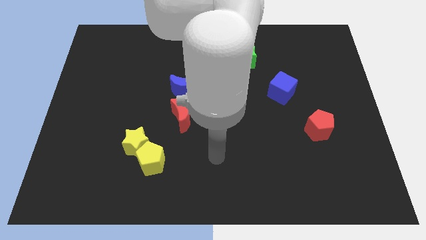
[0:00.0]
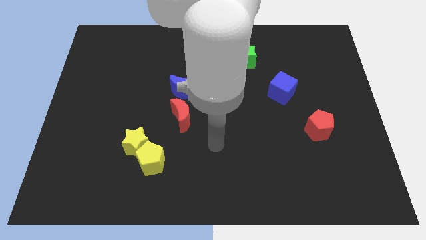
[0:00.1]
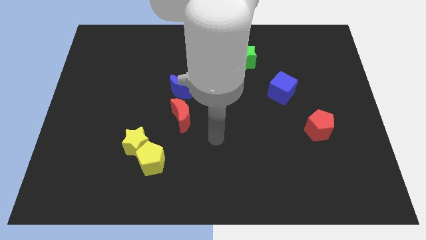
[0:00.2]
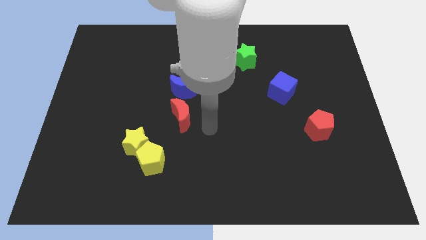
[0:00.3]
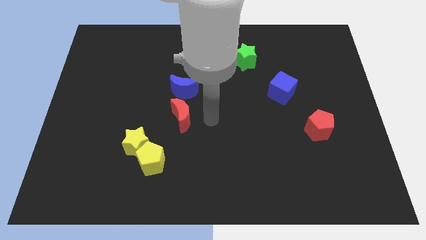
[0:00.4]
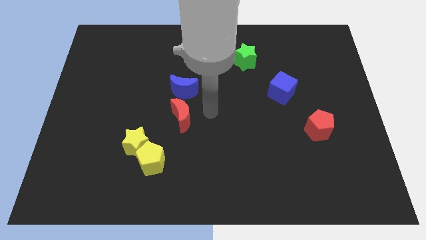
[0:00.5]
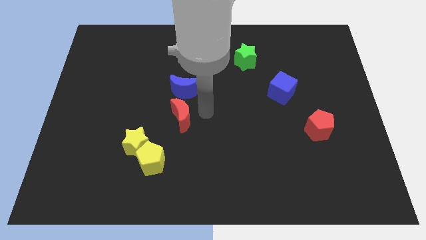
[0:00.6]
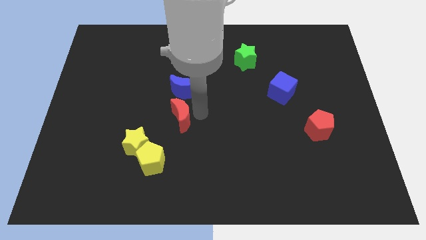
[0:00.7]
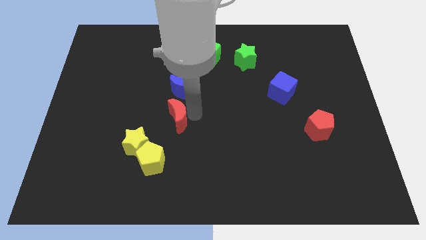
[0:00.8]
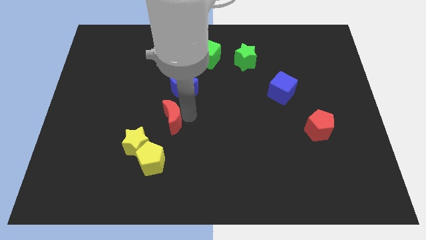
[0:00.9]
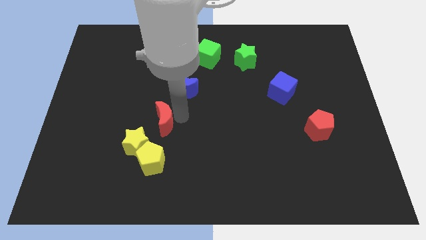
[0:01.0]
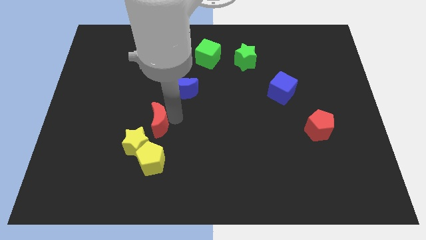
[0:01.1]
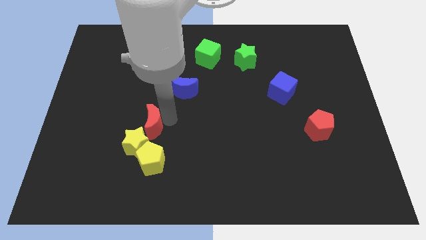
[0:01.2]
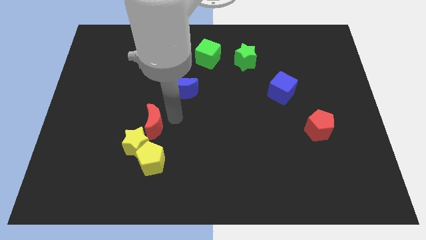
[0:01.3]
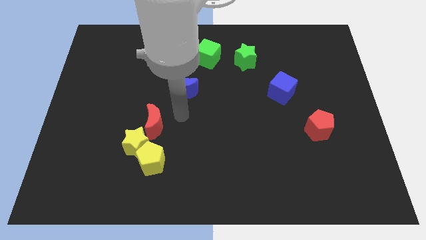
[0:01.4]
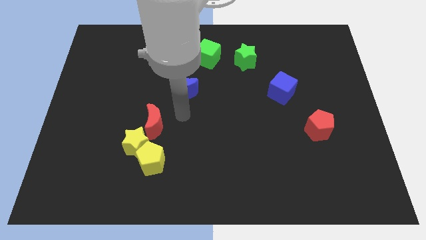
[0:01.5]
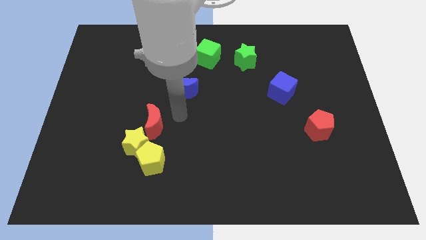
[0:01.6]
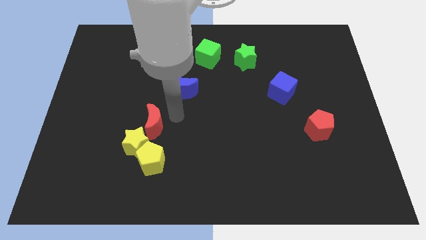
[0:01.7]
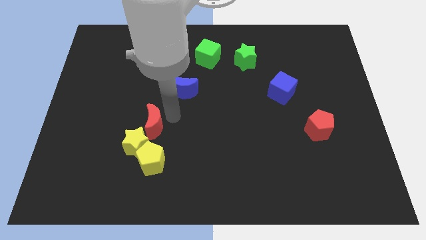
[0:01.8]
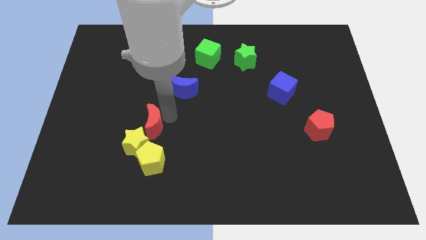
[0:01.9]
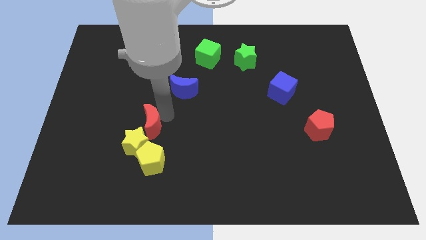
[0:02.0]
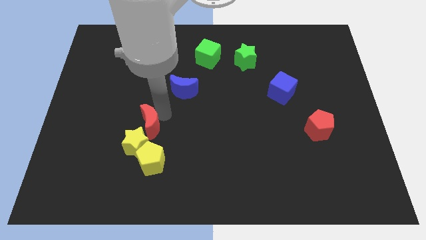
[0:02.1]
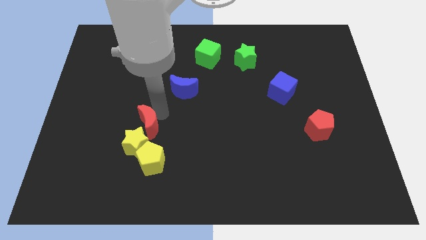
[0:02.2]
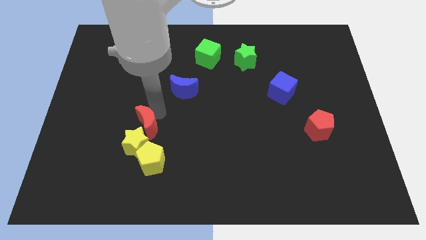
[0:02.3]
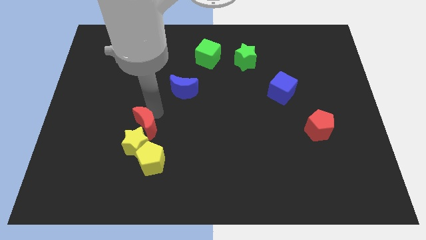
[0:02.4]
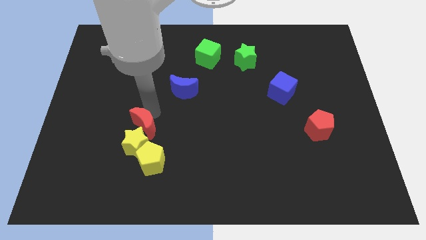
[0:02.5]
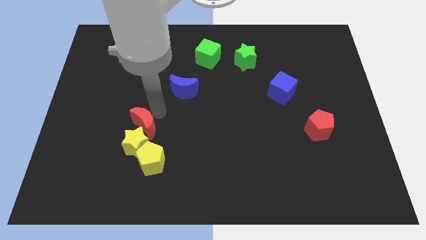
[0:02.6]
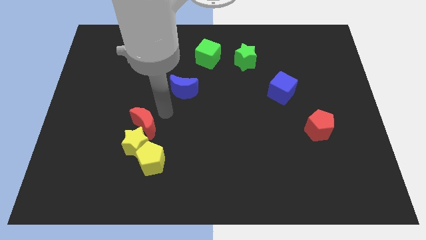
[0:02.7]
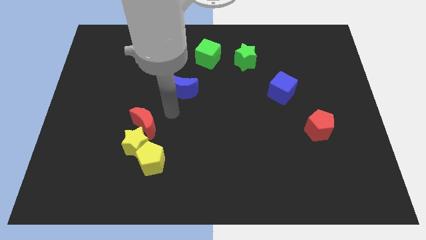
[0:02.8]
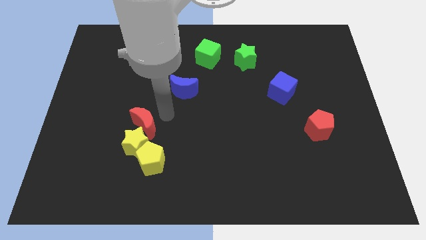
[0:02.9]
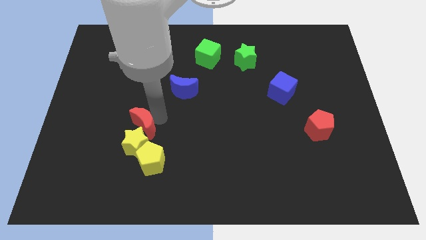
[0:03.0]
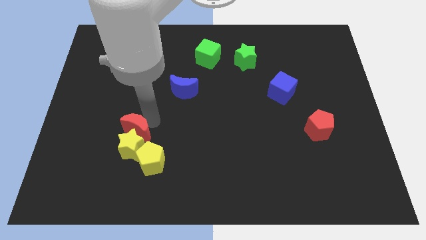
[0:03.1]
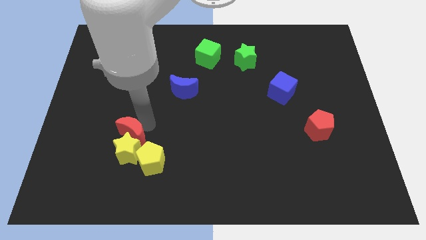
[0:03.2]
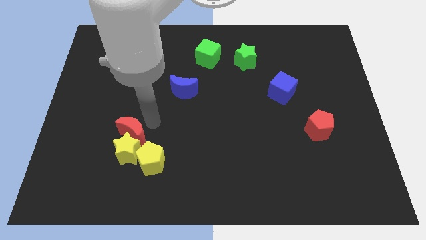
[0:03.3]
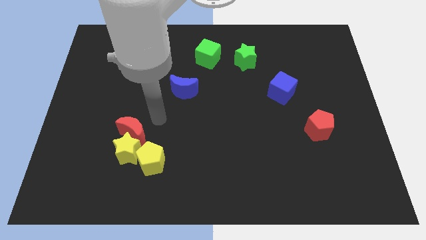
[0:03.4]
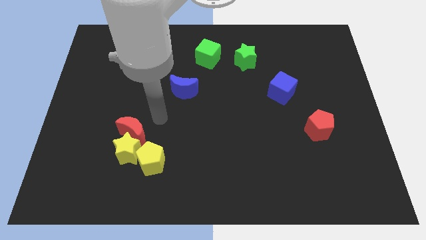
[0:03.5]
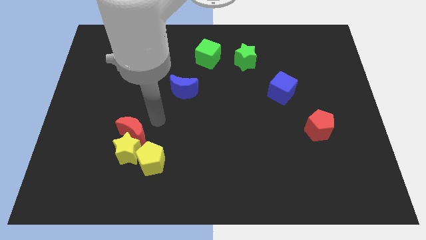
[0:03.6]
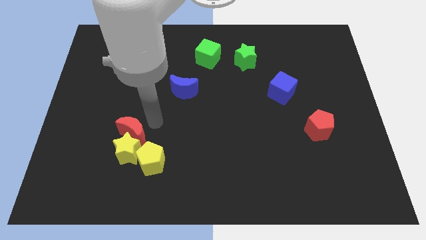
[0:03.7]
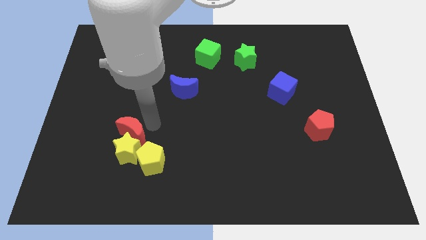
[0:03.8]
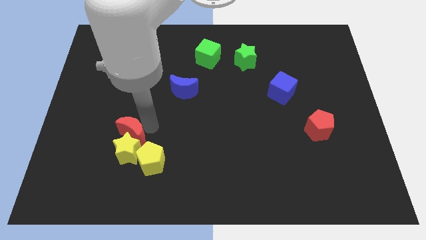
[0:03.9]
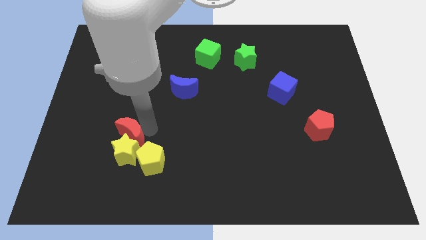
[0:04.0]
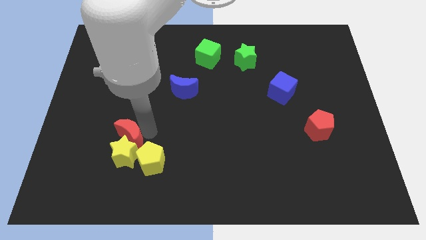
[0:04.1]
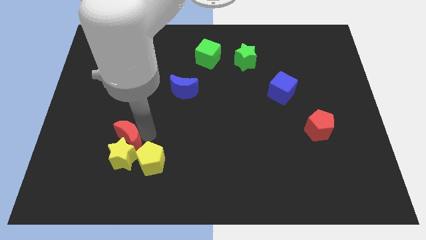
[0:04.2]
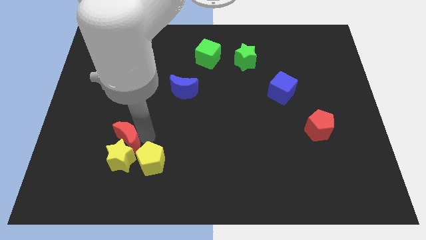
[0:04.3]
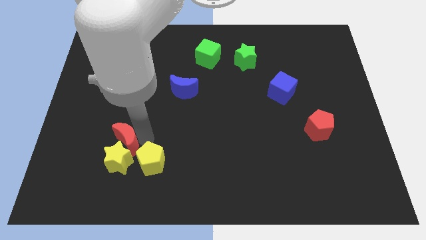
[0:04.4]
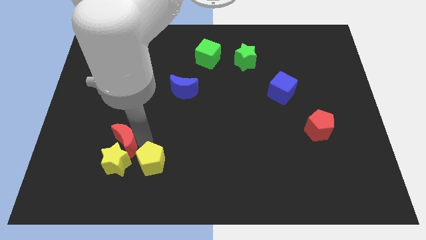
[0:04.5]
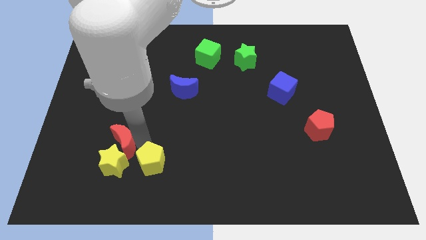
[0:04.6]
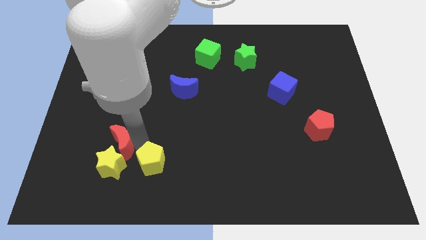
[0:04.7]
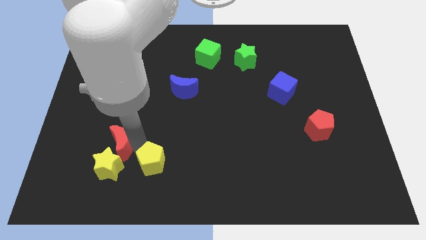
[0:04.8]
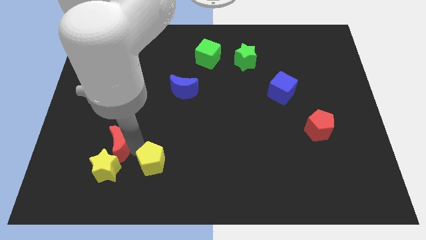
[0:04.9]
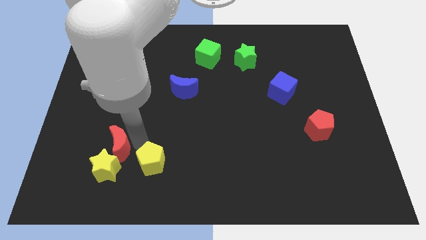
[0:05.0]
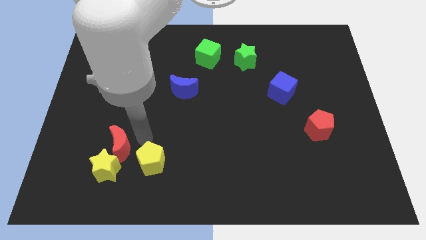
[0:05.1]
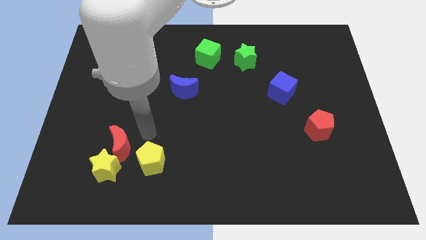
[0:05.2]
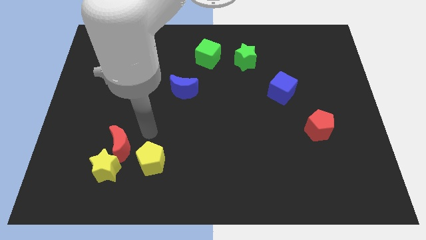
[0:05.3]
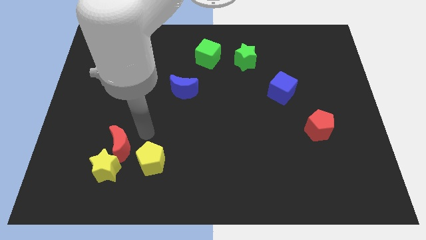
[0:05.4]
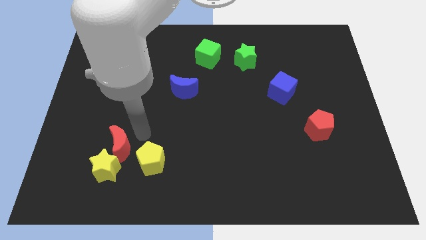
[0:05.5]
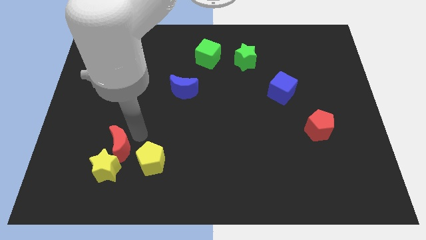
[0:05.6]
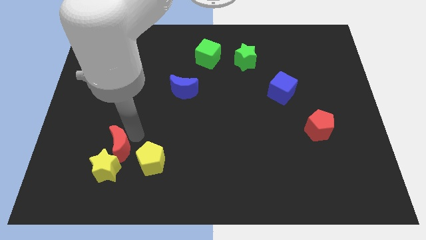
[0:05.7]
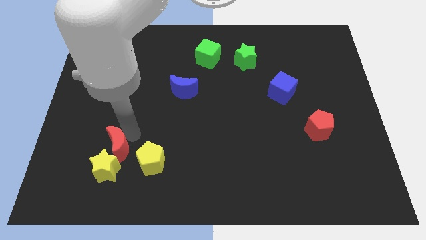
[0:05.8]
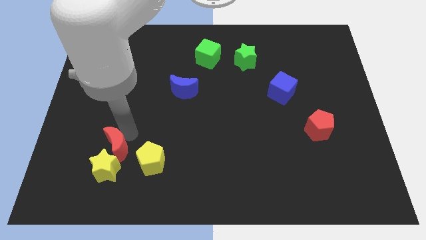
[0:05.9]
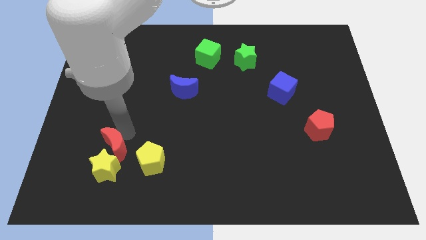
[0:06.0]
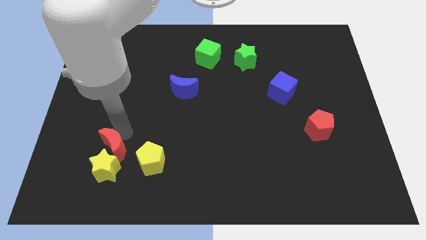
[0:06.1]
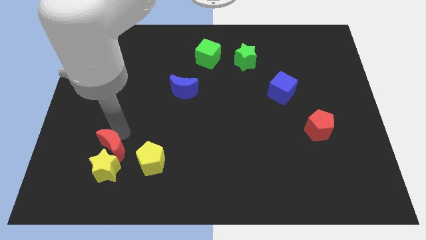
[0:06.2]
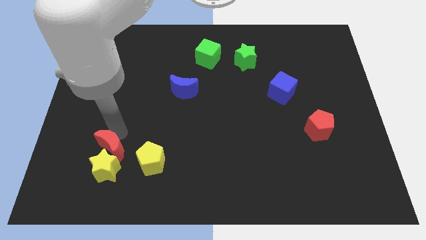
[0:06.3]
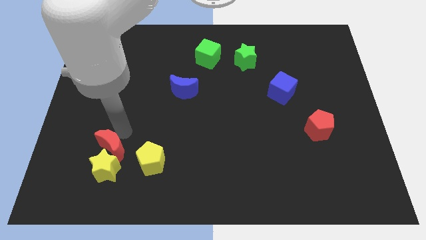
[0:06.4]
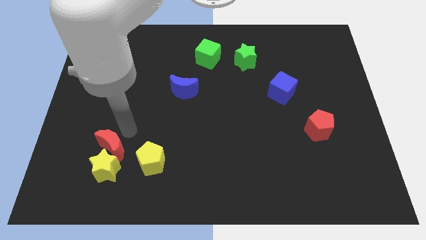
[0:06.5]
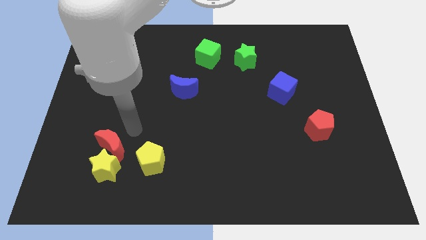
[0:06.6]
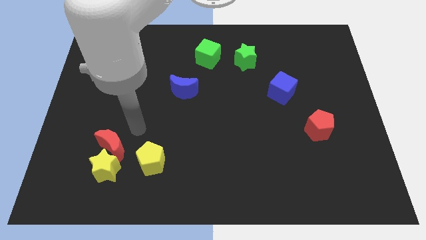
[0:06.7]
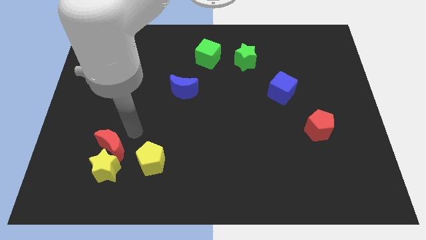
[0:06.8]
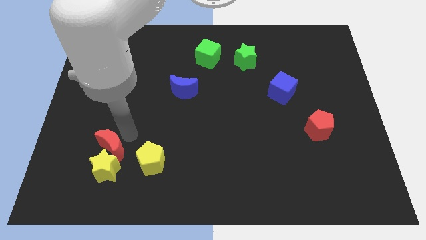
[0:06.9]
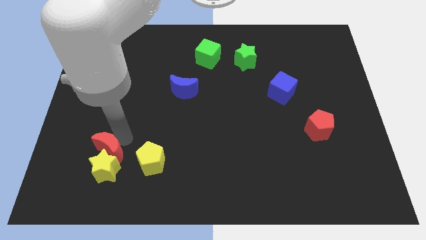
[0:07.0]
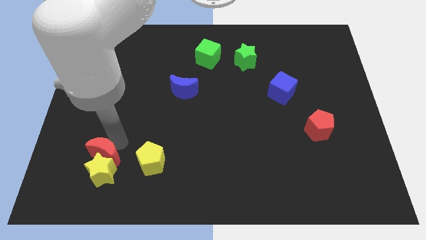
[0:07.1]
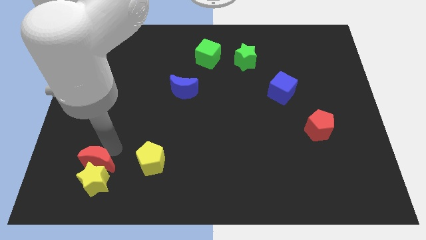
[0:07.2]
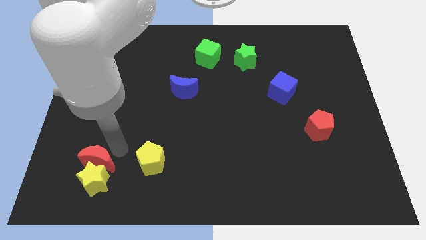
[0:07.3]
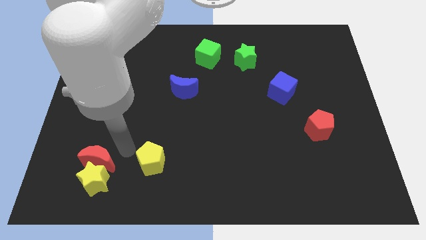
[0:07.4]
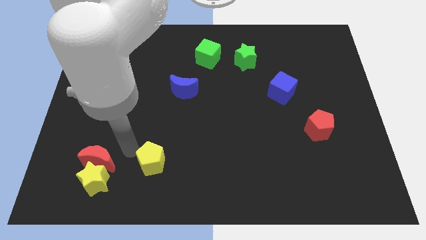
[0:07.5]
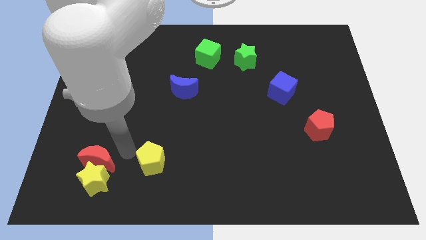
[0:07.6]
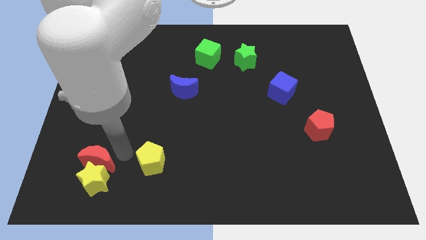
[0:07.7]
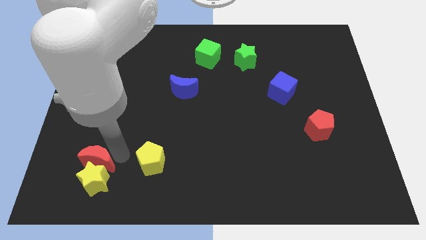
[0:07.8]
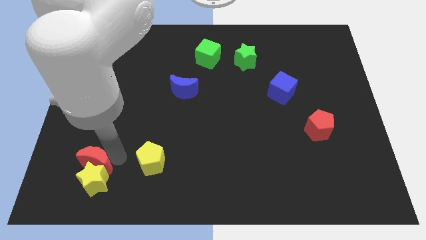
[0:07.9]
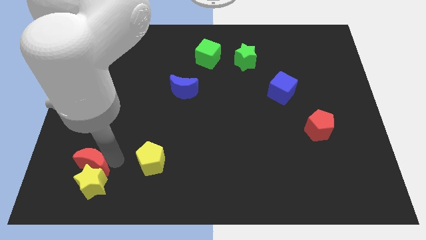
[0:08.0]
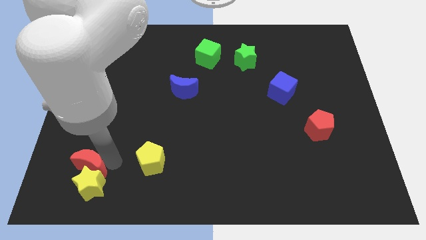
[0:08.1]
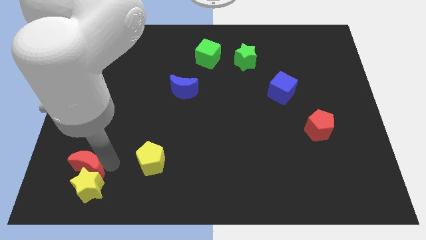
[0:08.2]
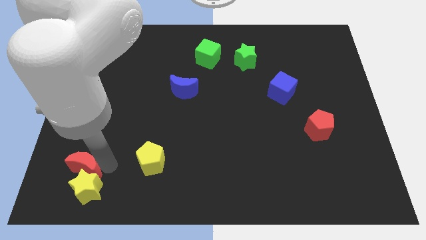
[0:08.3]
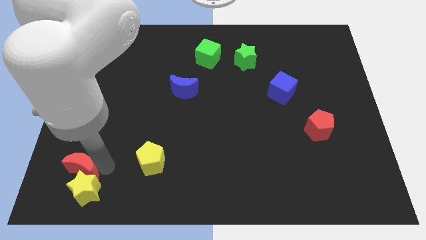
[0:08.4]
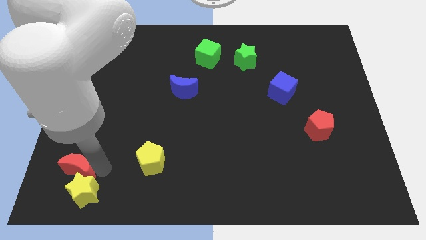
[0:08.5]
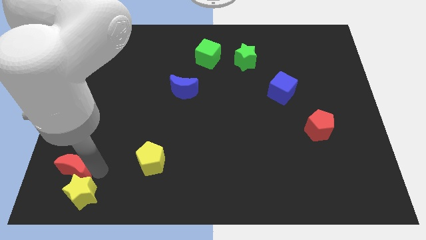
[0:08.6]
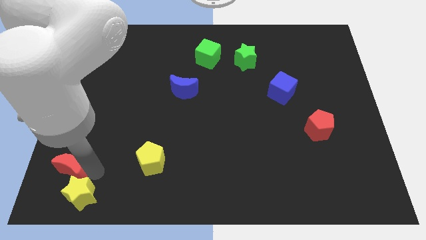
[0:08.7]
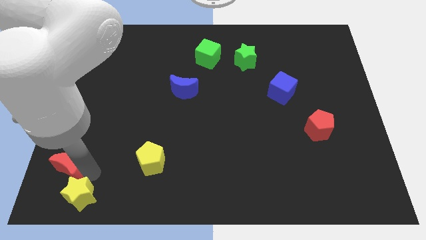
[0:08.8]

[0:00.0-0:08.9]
slide the red moon to the bottom left of the board
